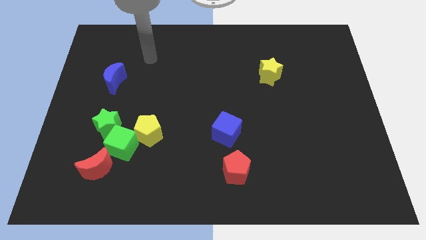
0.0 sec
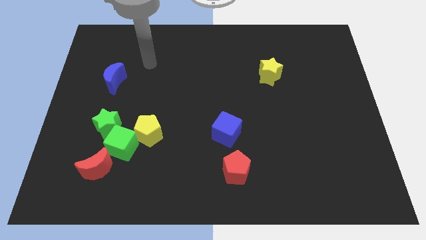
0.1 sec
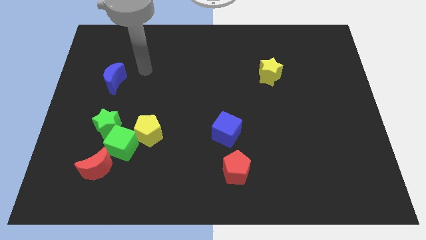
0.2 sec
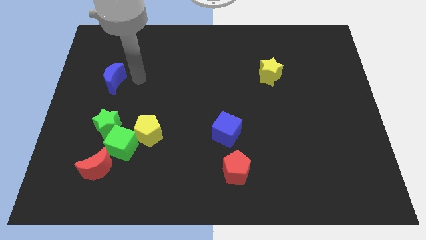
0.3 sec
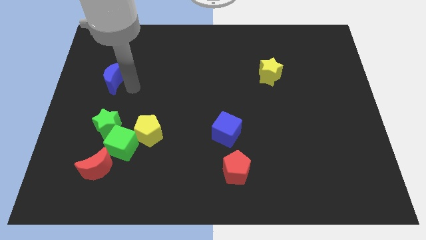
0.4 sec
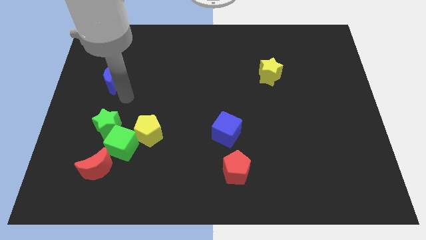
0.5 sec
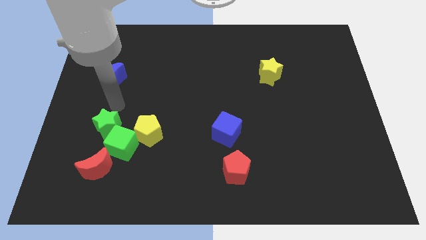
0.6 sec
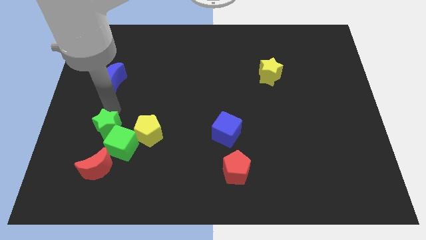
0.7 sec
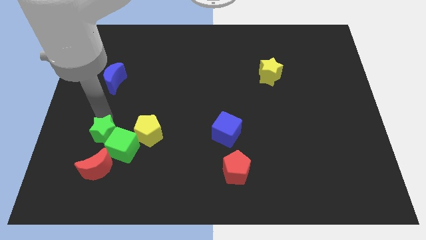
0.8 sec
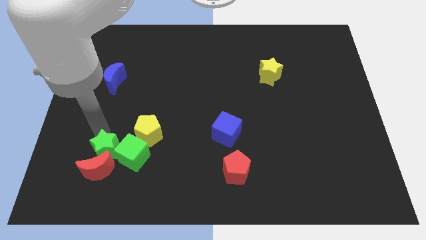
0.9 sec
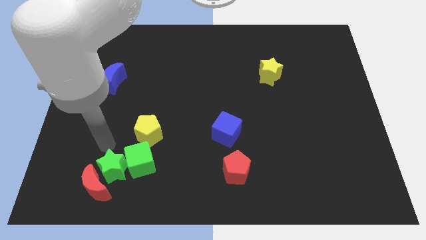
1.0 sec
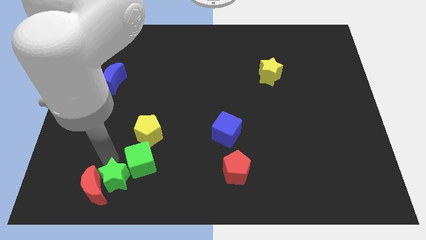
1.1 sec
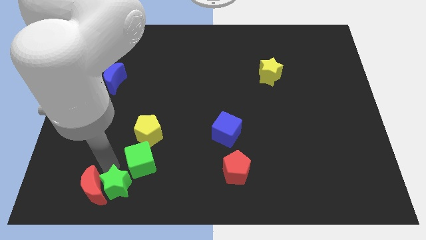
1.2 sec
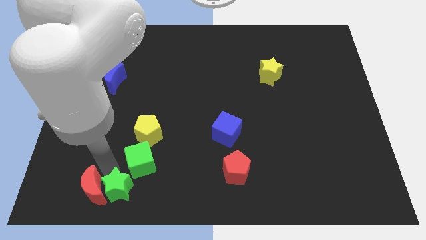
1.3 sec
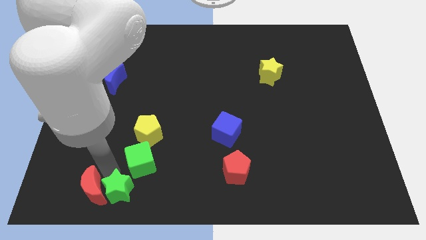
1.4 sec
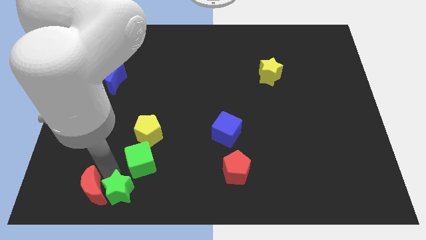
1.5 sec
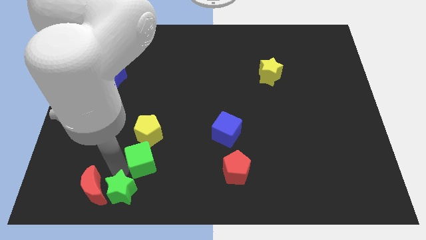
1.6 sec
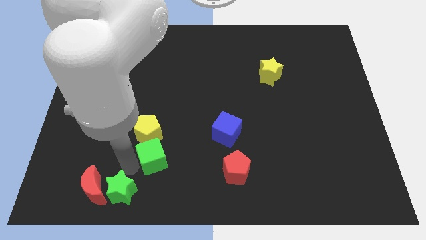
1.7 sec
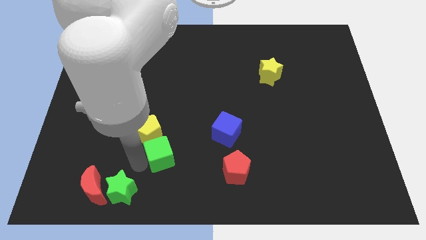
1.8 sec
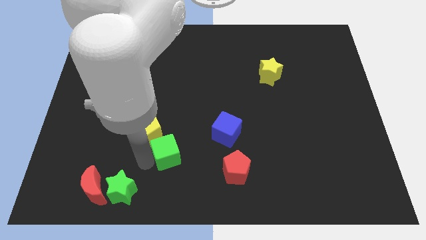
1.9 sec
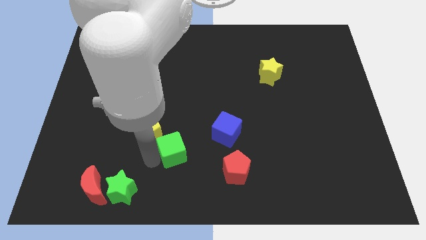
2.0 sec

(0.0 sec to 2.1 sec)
separate the green cube from the green star, yellow pentagon, and red moon

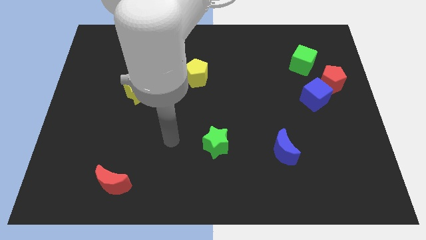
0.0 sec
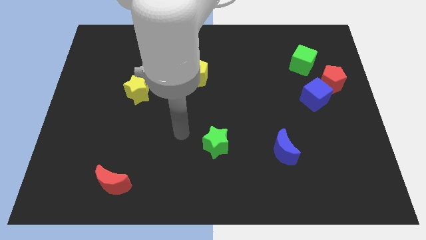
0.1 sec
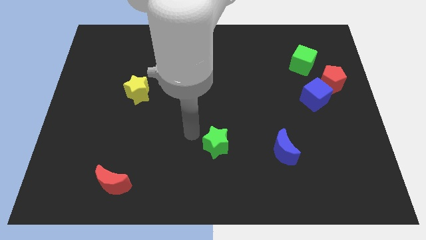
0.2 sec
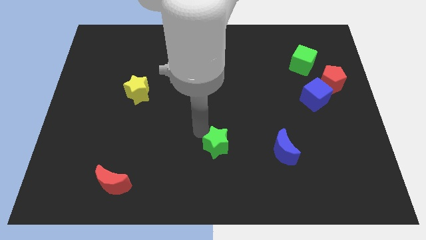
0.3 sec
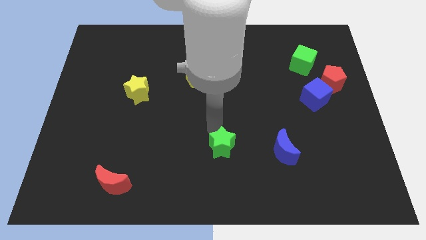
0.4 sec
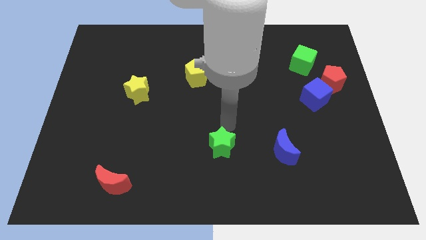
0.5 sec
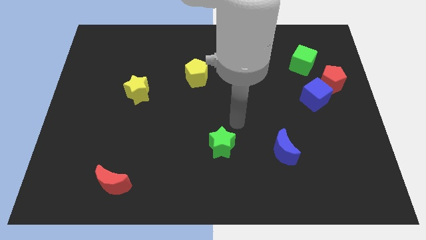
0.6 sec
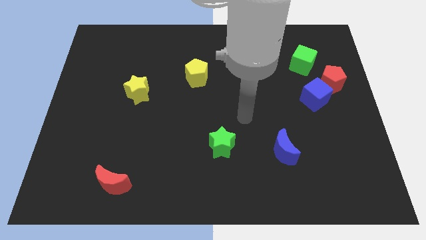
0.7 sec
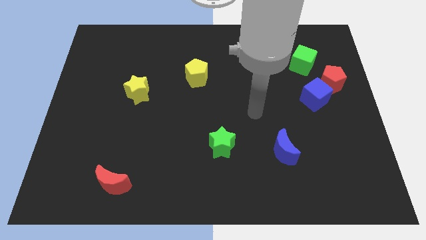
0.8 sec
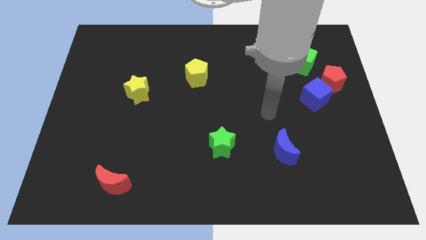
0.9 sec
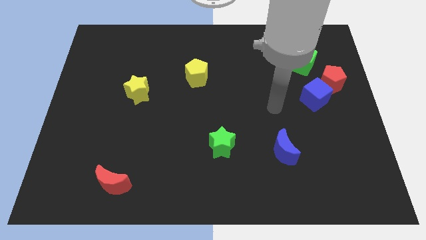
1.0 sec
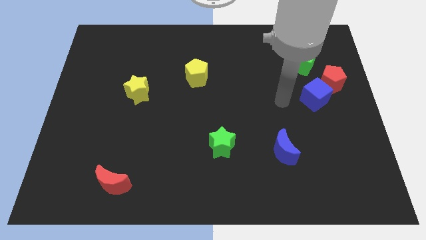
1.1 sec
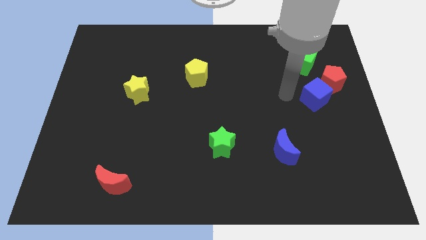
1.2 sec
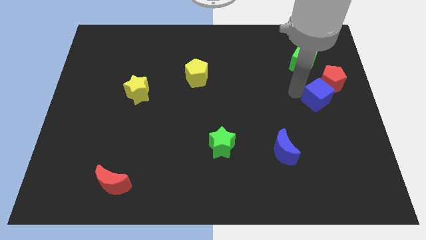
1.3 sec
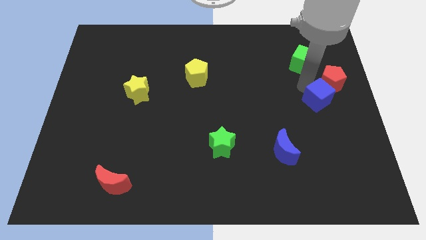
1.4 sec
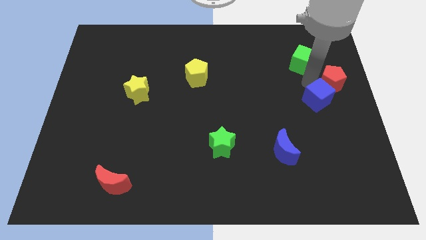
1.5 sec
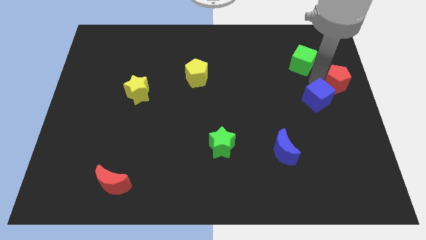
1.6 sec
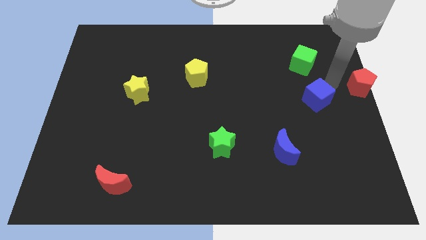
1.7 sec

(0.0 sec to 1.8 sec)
pull the blue cube apart from the red pentagon

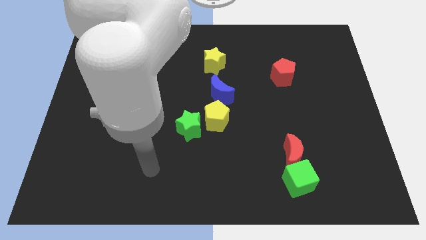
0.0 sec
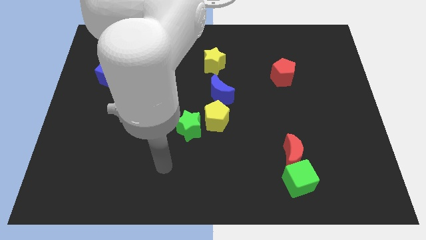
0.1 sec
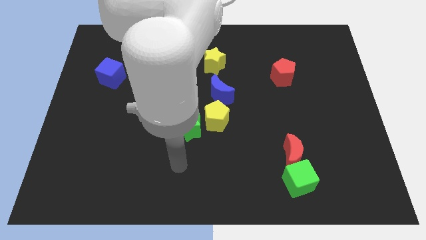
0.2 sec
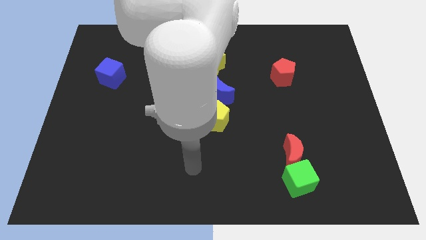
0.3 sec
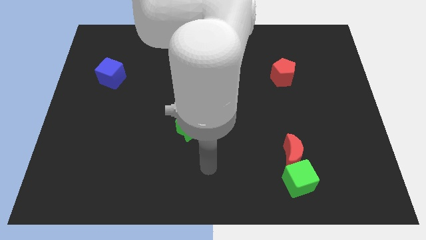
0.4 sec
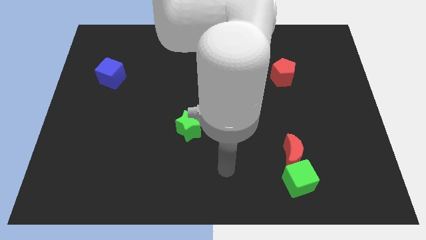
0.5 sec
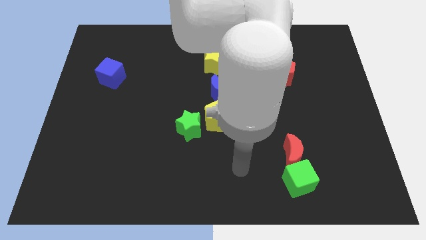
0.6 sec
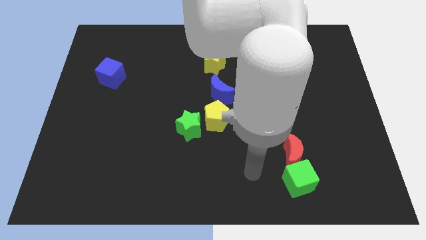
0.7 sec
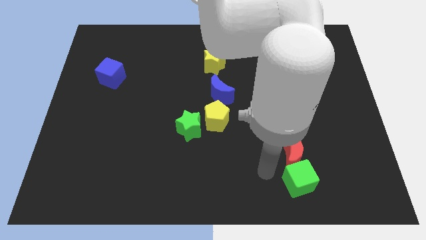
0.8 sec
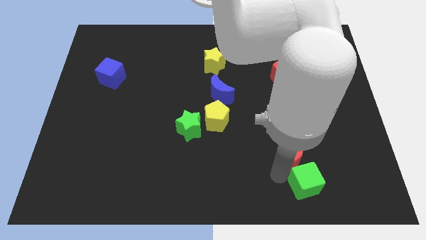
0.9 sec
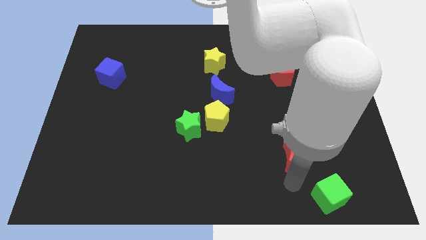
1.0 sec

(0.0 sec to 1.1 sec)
move the red moon away from the green cube

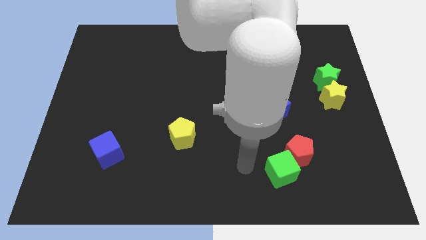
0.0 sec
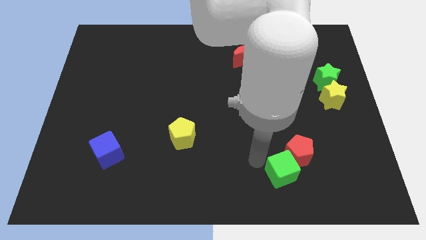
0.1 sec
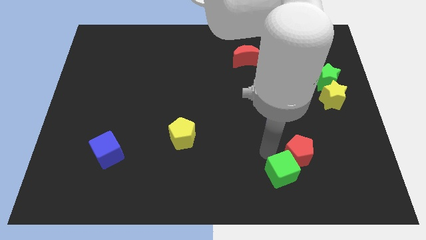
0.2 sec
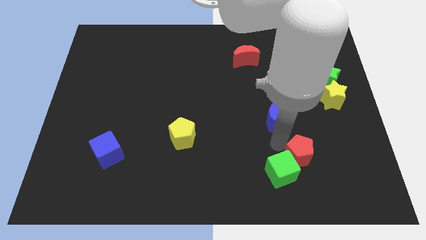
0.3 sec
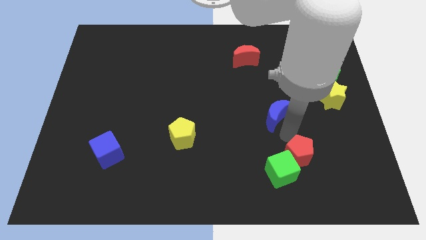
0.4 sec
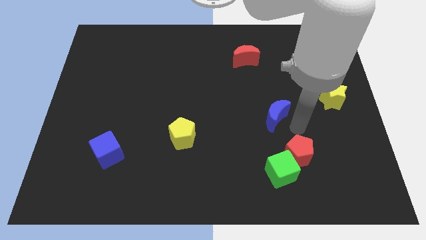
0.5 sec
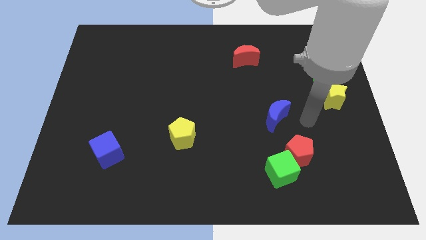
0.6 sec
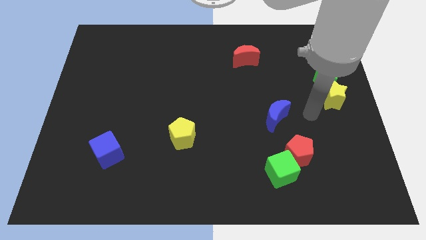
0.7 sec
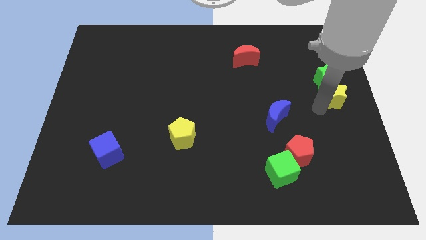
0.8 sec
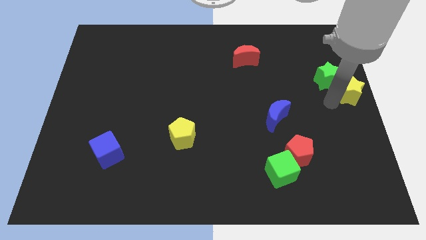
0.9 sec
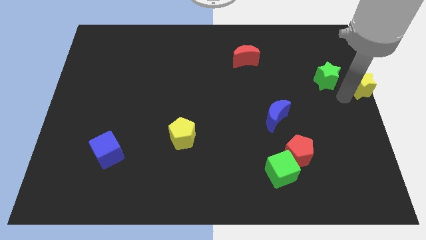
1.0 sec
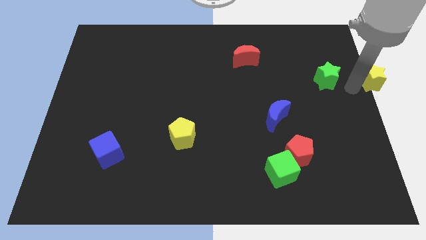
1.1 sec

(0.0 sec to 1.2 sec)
pull the green star apart from the yellow star

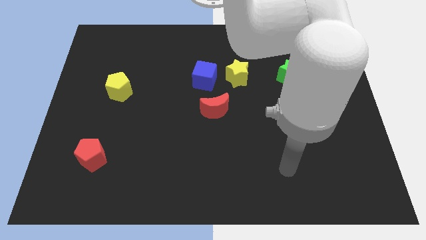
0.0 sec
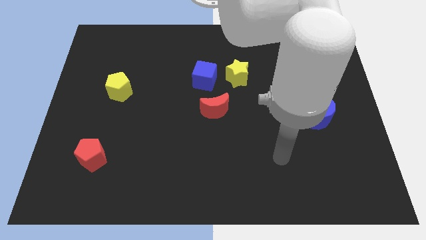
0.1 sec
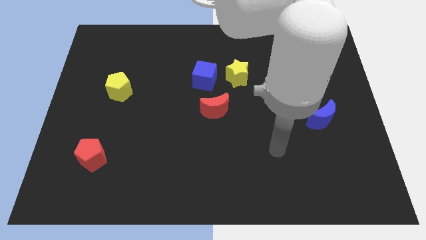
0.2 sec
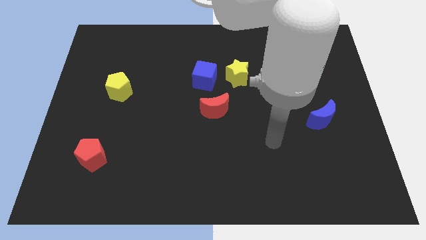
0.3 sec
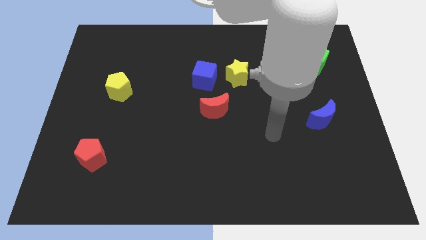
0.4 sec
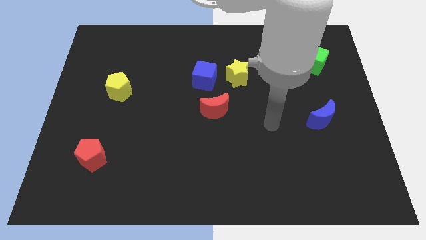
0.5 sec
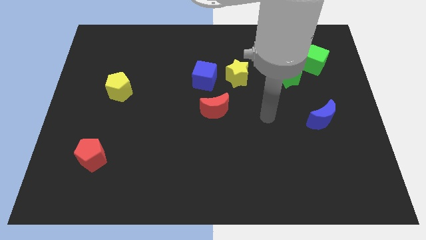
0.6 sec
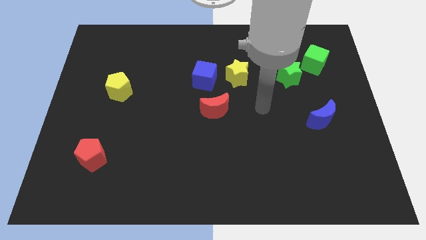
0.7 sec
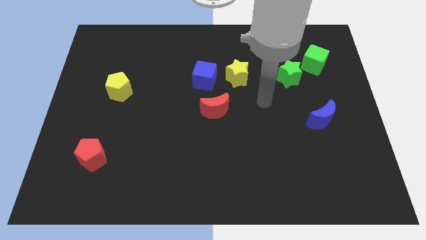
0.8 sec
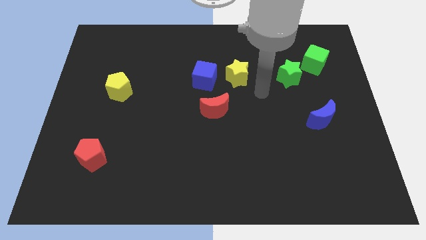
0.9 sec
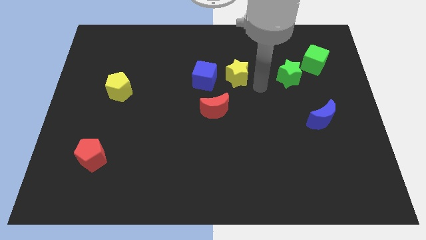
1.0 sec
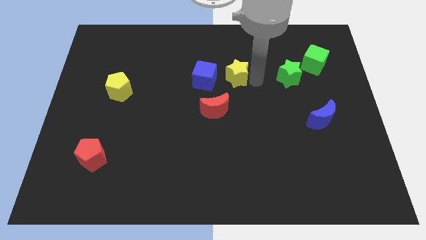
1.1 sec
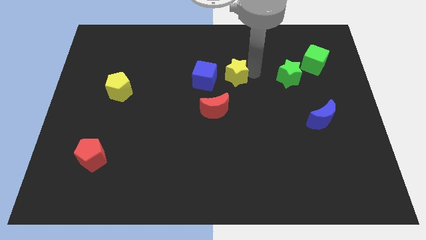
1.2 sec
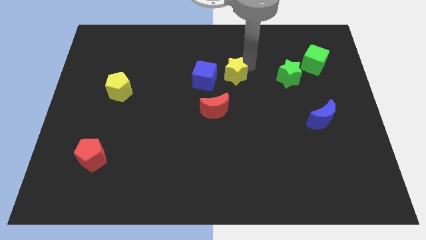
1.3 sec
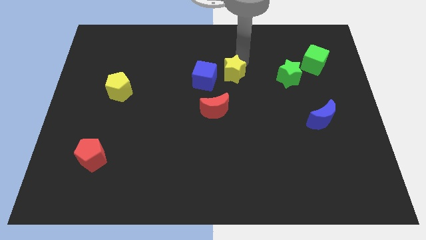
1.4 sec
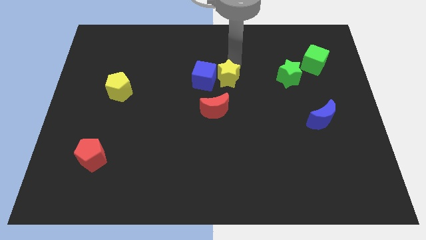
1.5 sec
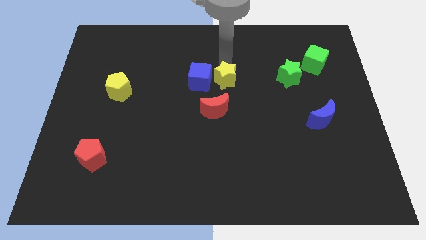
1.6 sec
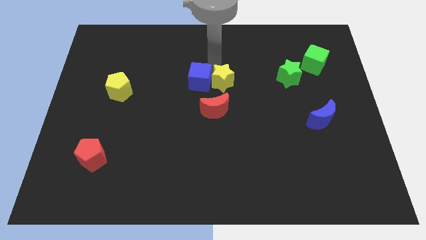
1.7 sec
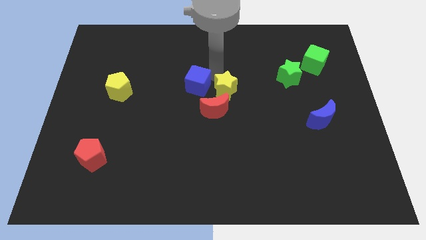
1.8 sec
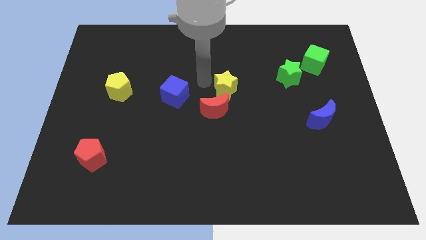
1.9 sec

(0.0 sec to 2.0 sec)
pull the yellow star apart from the blue cube

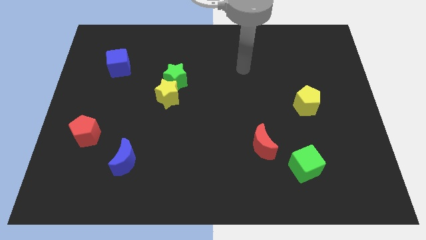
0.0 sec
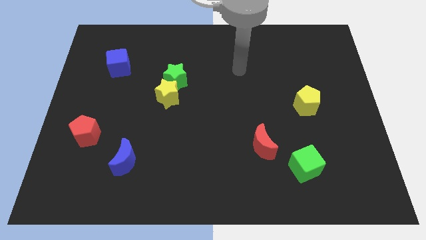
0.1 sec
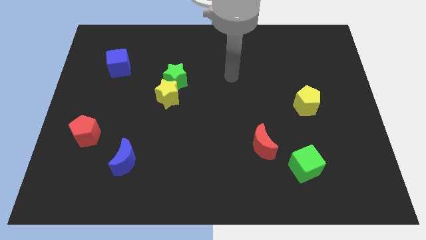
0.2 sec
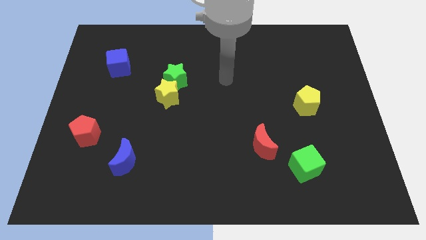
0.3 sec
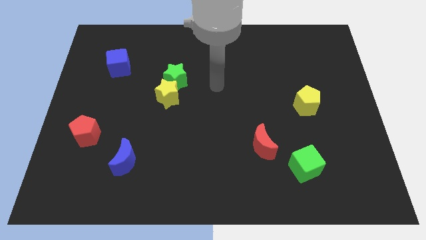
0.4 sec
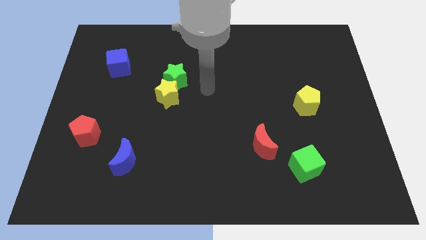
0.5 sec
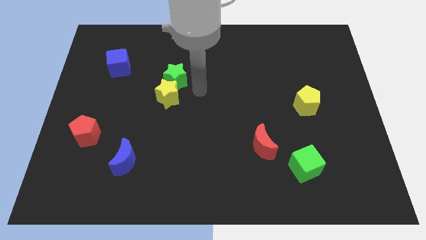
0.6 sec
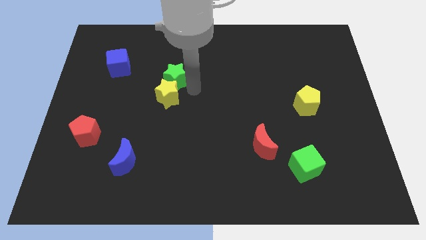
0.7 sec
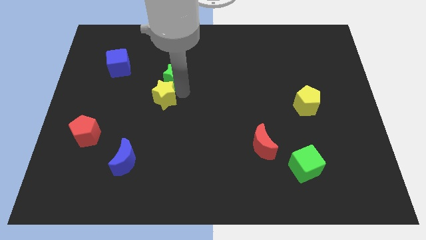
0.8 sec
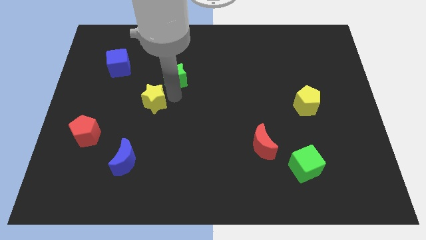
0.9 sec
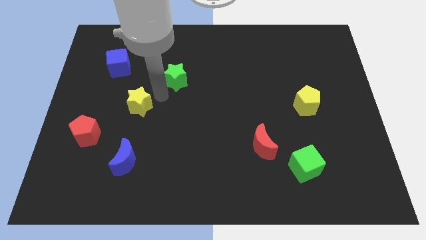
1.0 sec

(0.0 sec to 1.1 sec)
move the green star away from the yellow star
